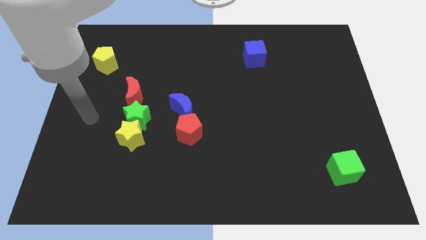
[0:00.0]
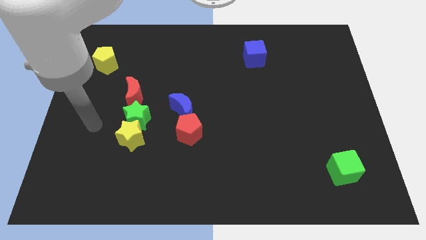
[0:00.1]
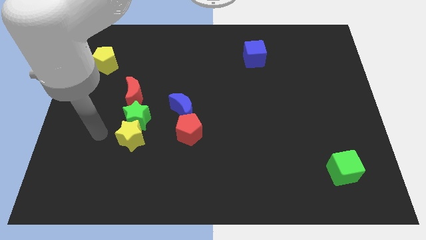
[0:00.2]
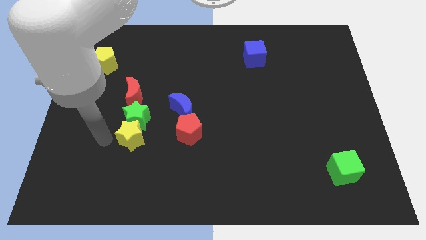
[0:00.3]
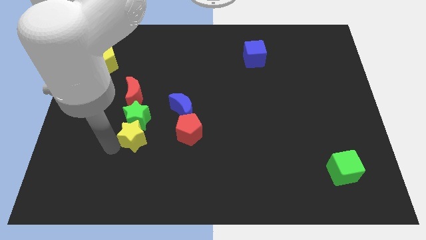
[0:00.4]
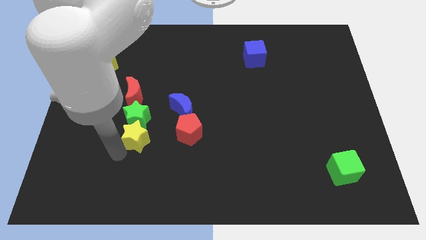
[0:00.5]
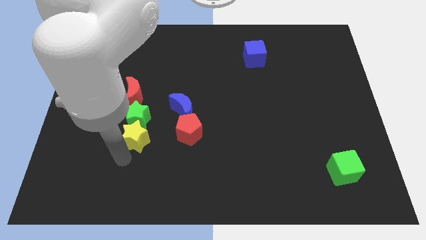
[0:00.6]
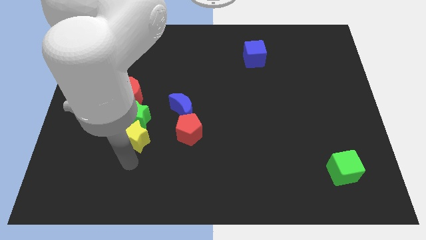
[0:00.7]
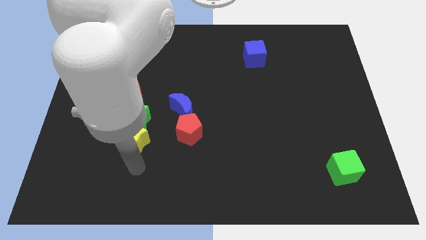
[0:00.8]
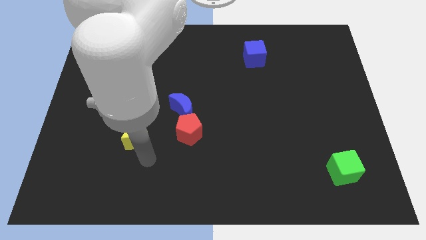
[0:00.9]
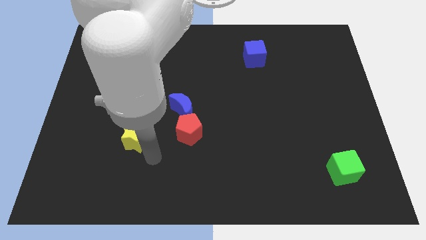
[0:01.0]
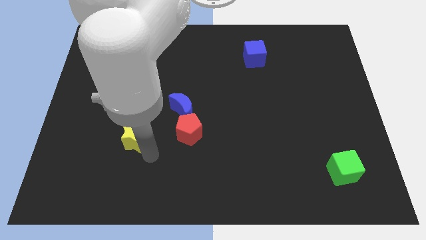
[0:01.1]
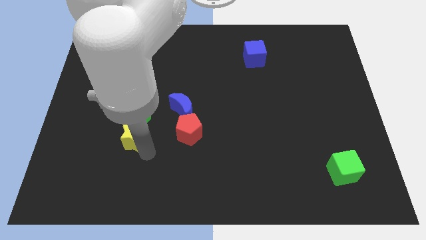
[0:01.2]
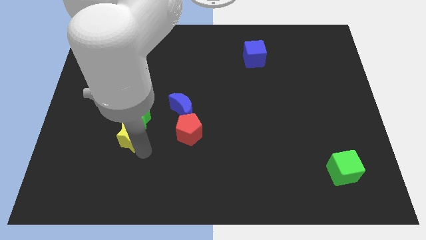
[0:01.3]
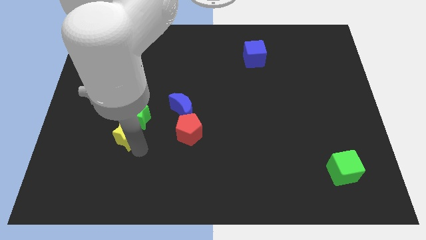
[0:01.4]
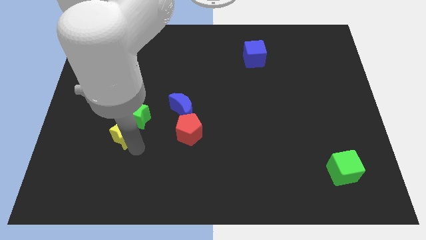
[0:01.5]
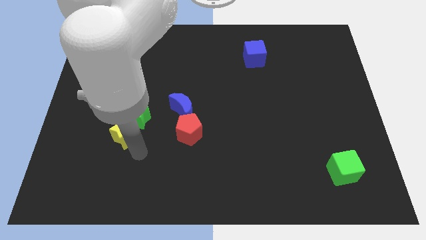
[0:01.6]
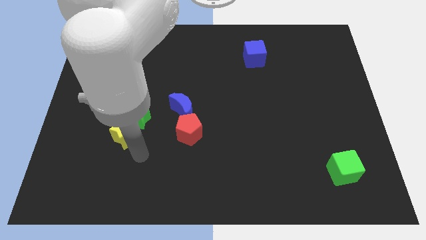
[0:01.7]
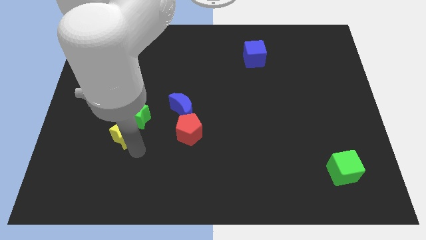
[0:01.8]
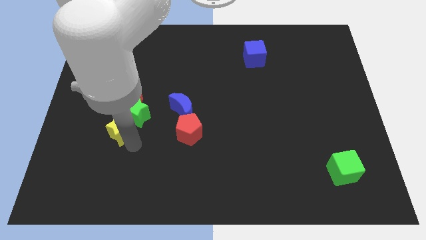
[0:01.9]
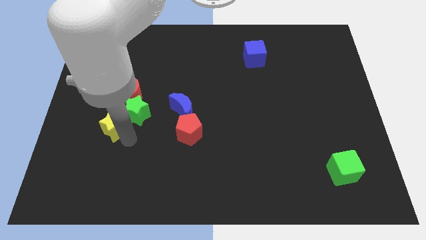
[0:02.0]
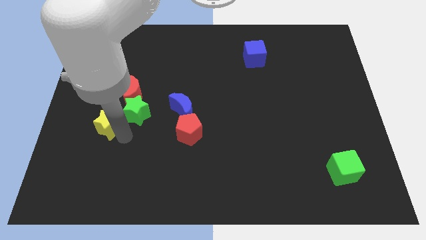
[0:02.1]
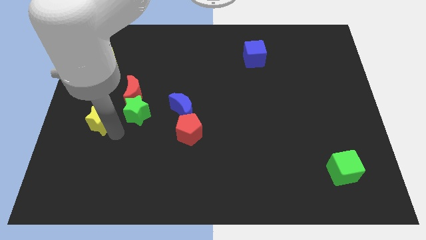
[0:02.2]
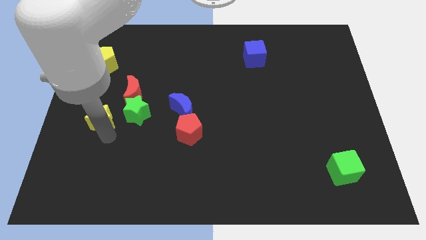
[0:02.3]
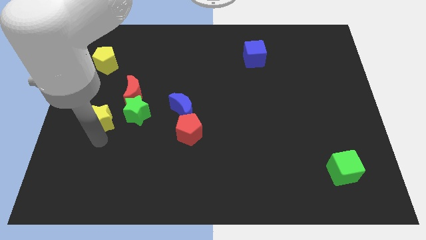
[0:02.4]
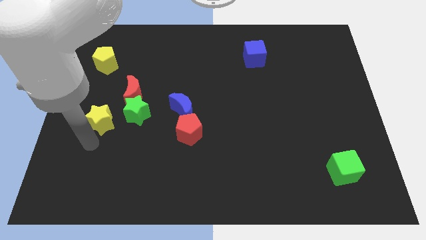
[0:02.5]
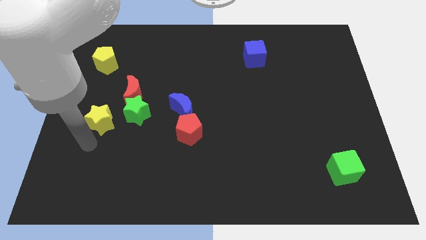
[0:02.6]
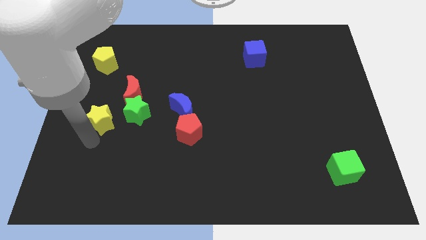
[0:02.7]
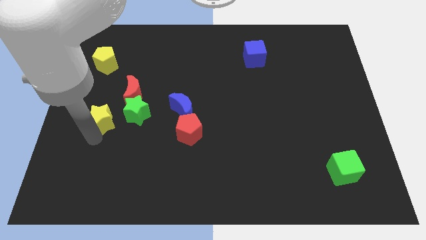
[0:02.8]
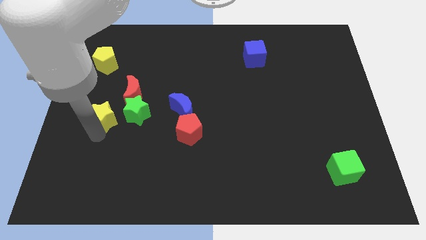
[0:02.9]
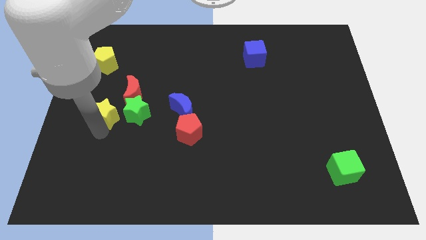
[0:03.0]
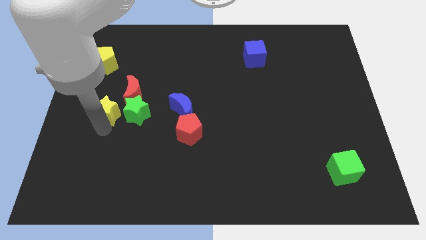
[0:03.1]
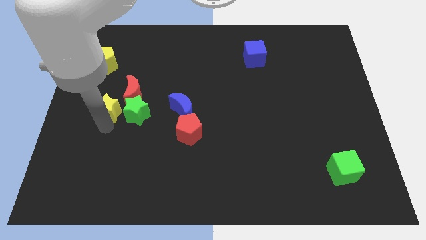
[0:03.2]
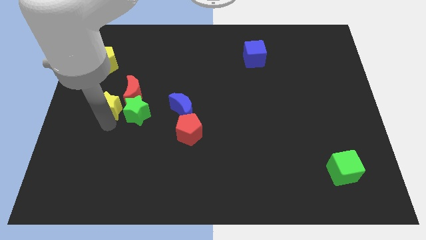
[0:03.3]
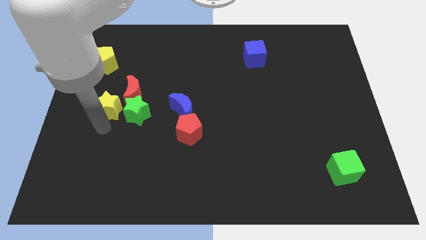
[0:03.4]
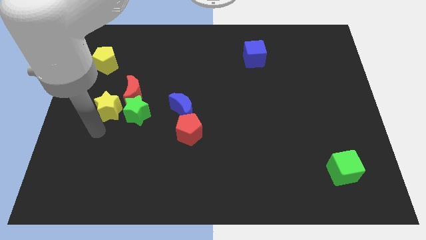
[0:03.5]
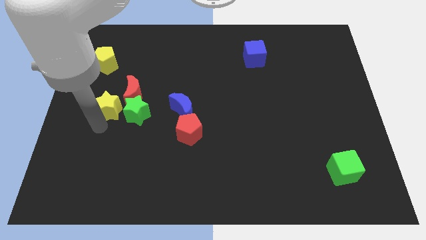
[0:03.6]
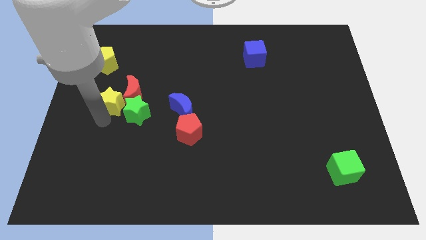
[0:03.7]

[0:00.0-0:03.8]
slightly push the yellow star upwards

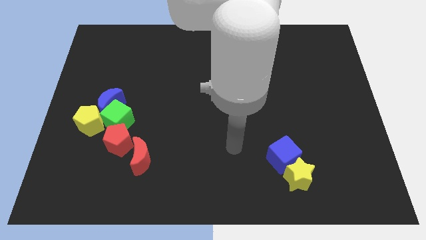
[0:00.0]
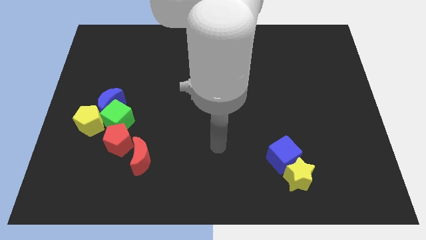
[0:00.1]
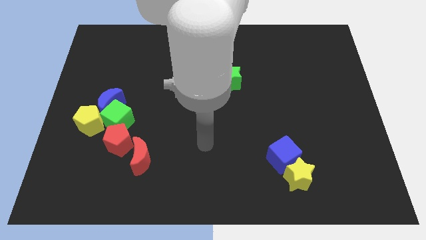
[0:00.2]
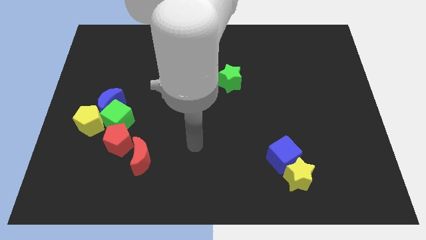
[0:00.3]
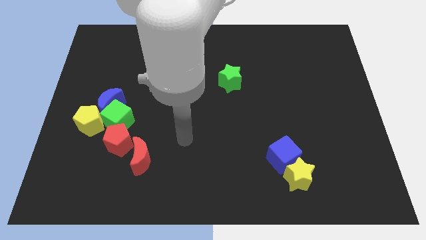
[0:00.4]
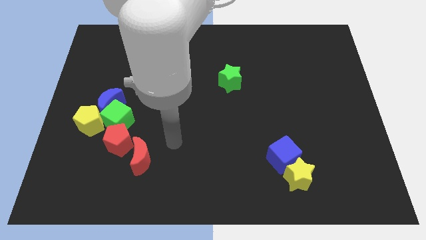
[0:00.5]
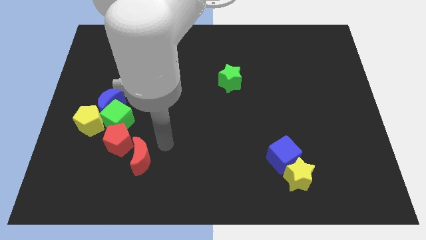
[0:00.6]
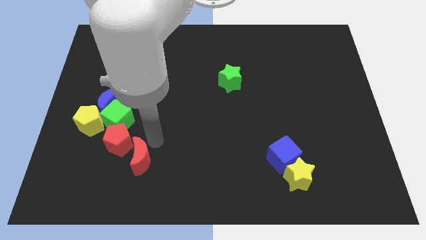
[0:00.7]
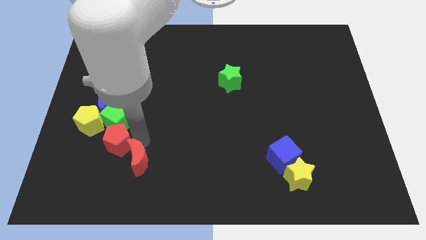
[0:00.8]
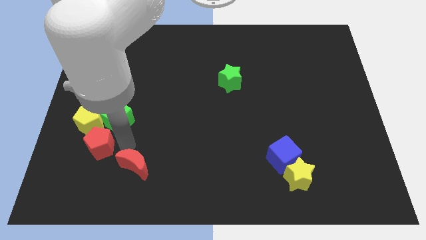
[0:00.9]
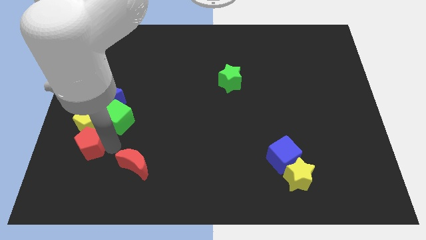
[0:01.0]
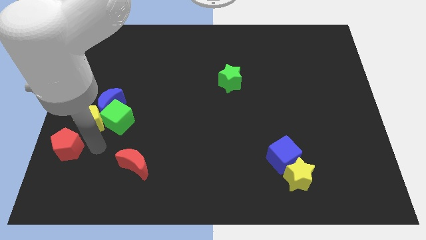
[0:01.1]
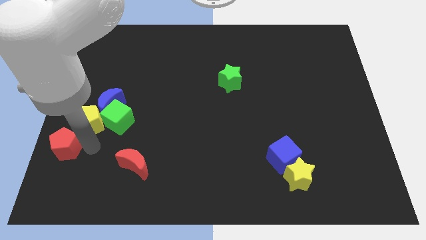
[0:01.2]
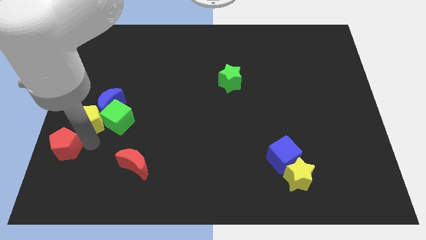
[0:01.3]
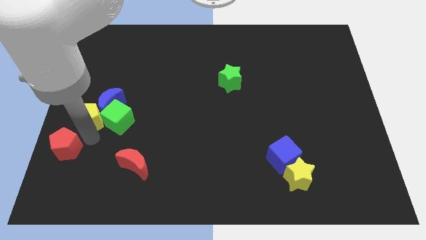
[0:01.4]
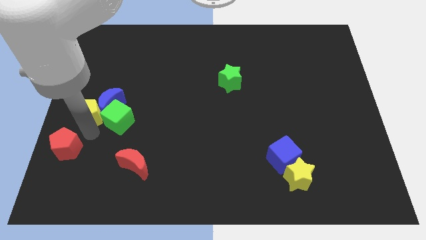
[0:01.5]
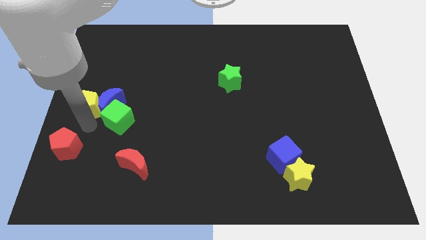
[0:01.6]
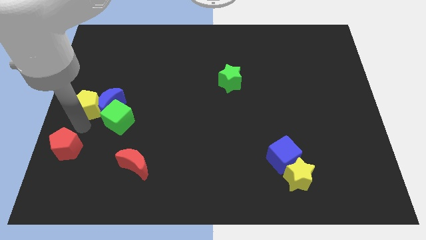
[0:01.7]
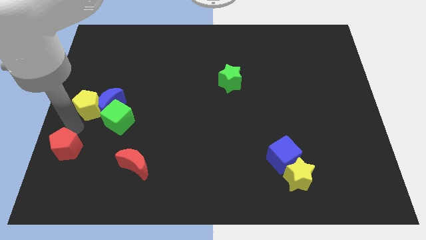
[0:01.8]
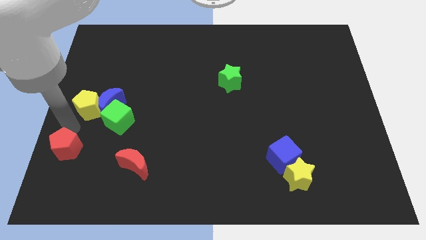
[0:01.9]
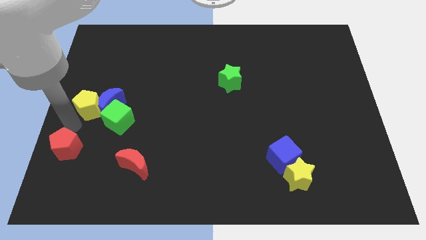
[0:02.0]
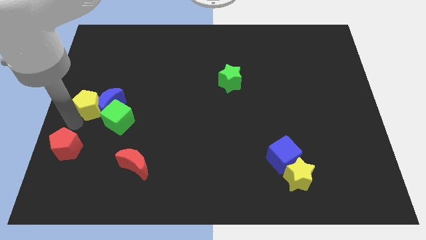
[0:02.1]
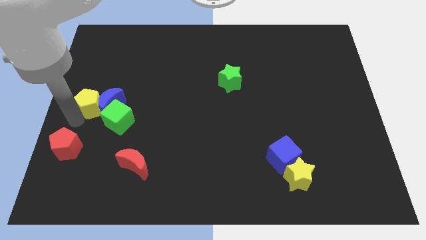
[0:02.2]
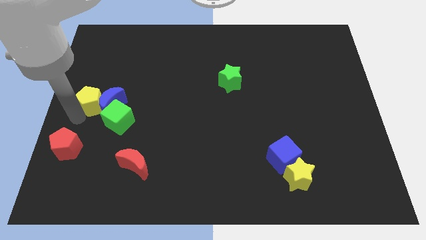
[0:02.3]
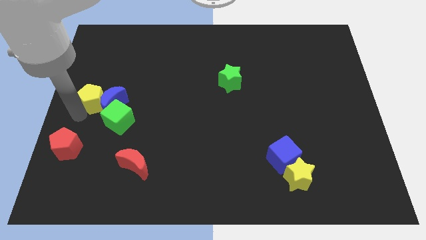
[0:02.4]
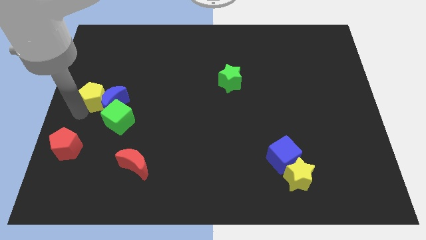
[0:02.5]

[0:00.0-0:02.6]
move the yellow pentagon up a little bit

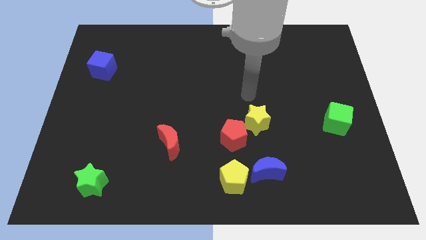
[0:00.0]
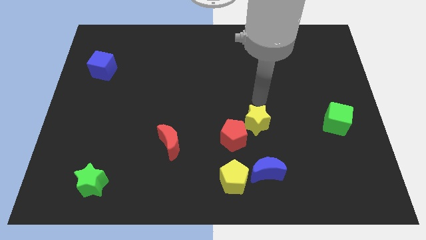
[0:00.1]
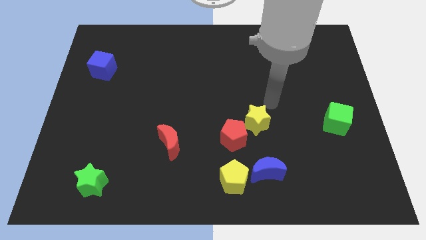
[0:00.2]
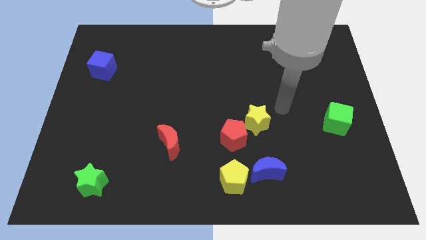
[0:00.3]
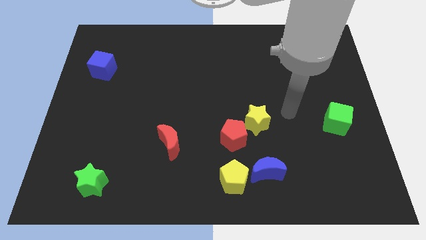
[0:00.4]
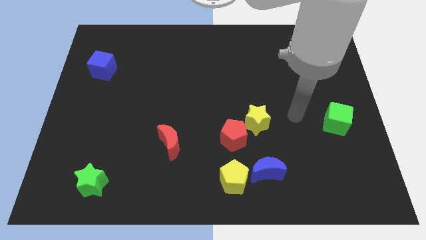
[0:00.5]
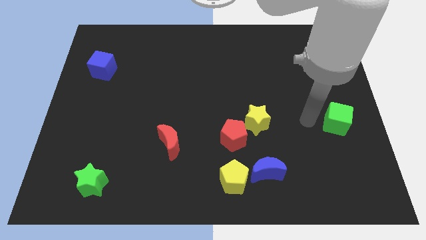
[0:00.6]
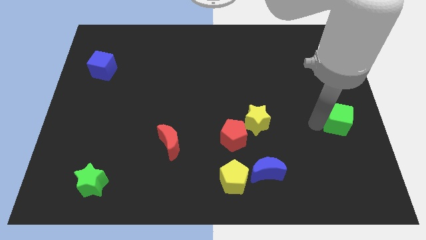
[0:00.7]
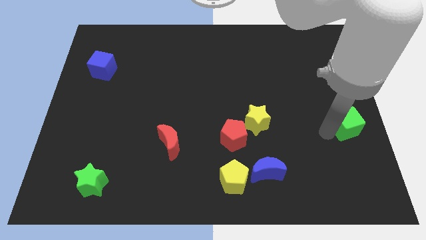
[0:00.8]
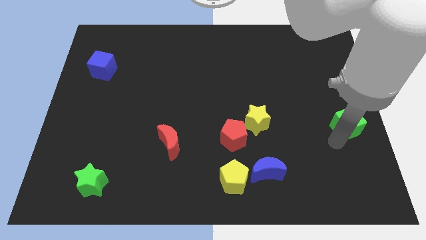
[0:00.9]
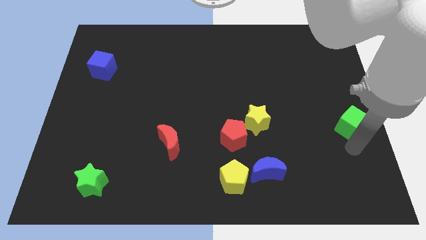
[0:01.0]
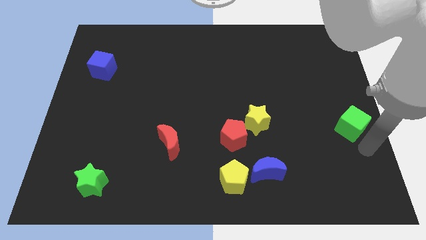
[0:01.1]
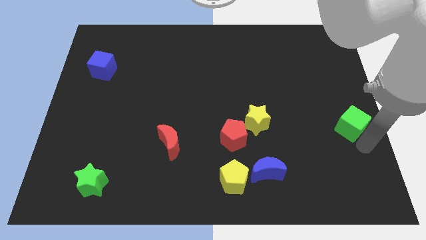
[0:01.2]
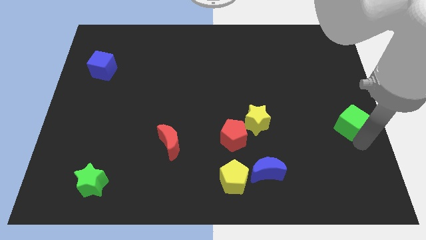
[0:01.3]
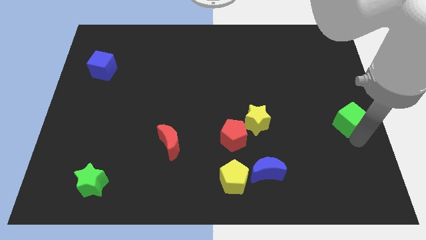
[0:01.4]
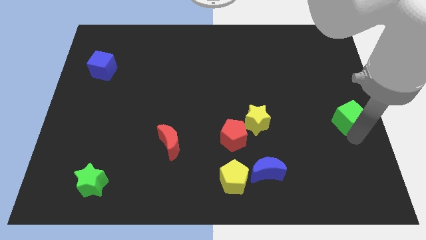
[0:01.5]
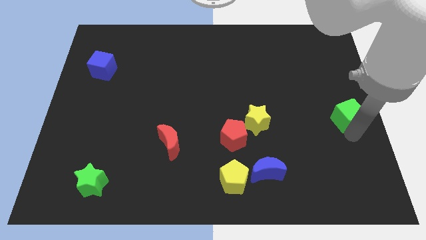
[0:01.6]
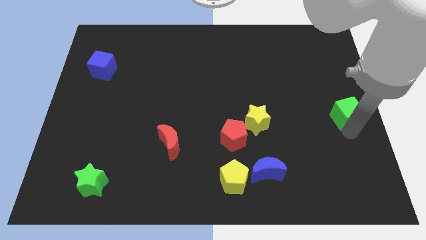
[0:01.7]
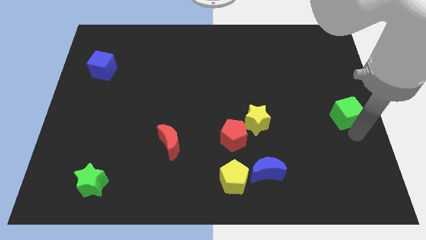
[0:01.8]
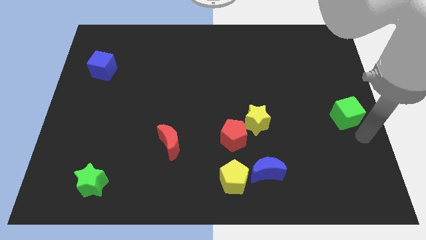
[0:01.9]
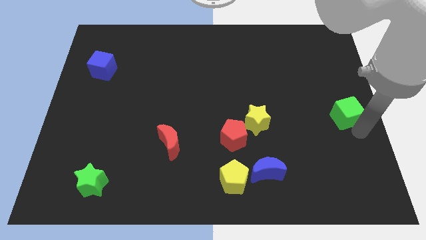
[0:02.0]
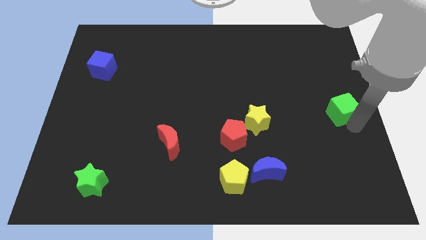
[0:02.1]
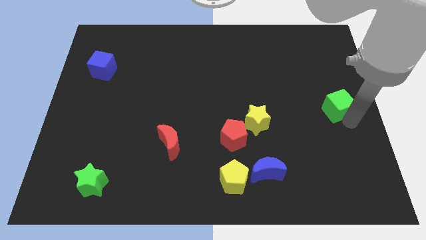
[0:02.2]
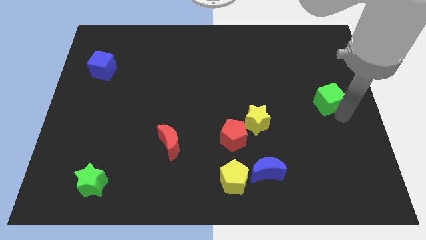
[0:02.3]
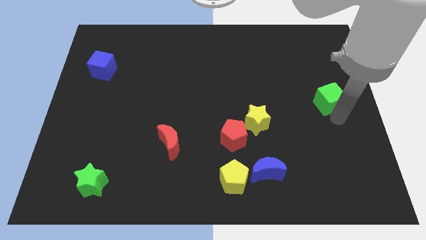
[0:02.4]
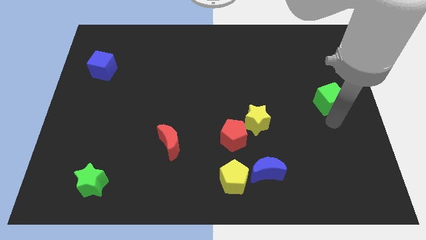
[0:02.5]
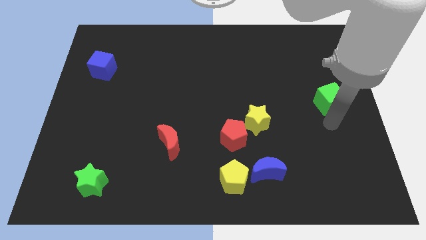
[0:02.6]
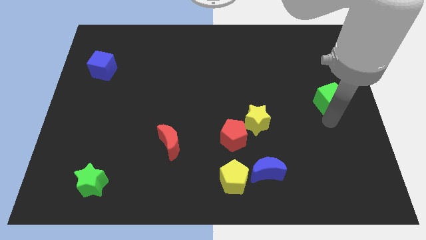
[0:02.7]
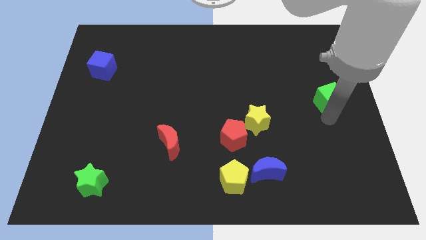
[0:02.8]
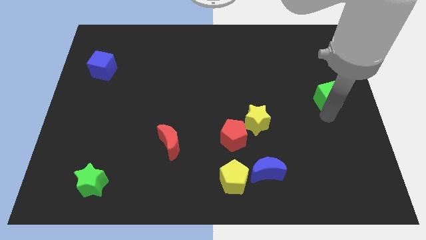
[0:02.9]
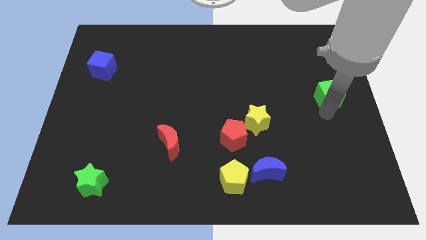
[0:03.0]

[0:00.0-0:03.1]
push the green cube a little bit up
